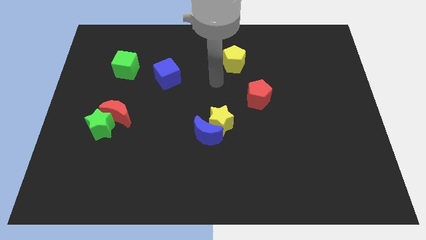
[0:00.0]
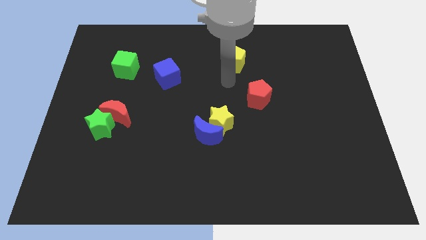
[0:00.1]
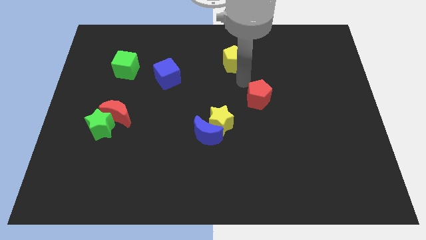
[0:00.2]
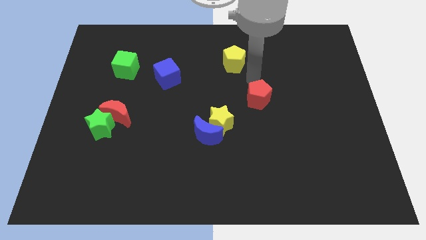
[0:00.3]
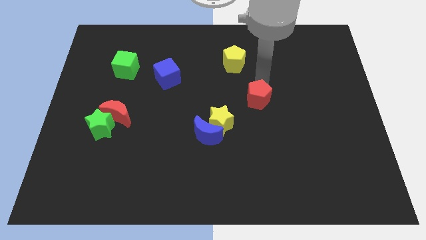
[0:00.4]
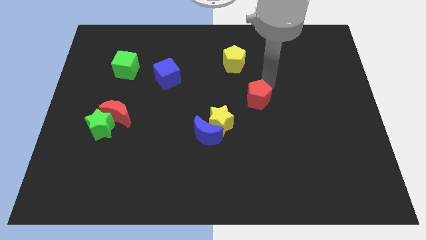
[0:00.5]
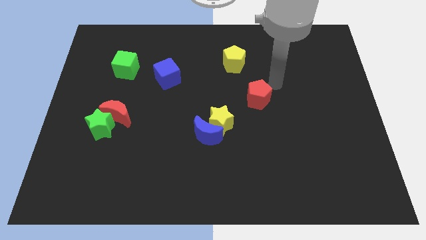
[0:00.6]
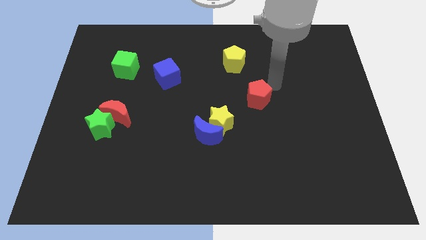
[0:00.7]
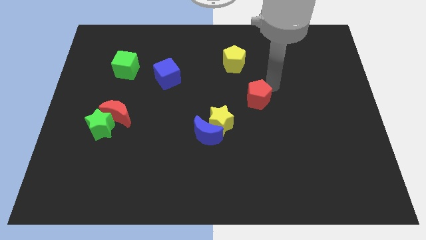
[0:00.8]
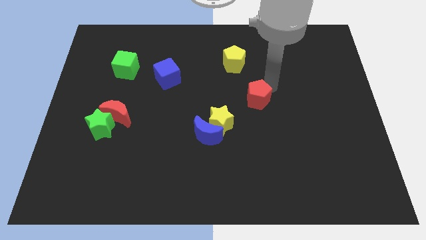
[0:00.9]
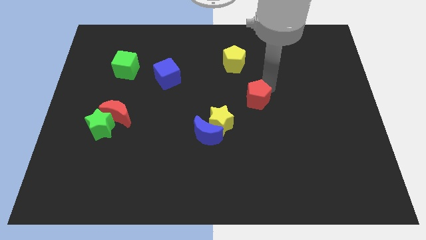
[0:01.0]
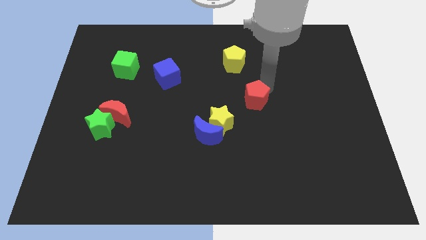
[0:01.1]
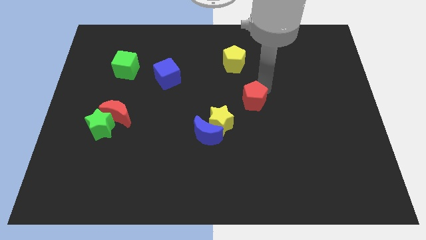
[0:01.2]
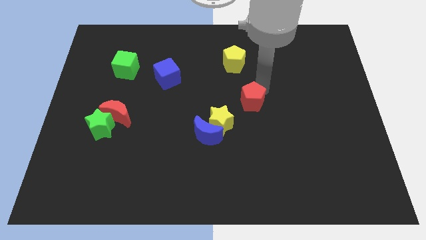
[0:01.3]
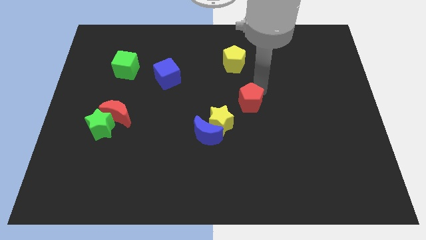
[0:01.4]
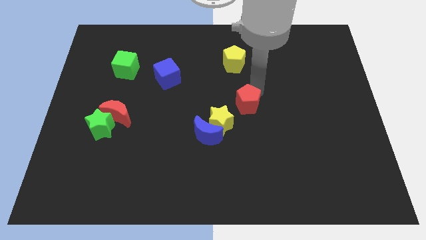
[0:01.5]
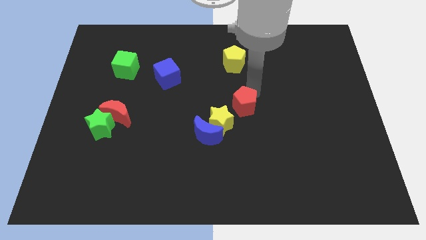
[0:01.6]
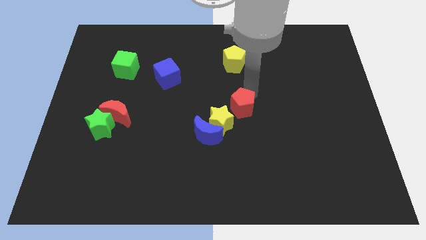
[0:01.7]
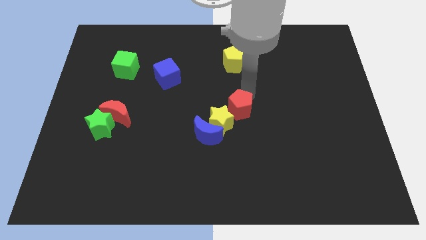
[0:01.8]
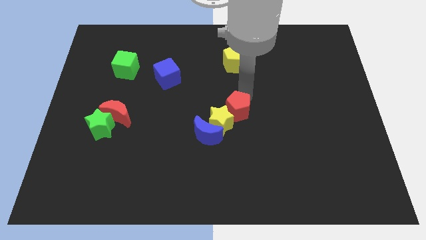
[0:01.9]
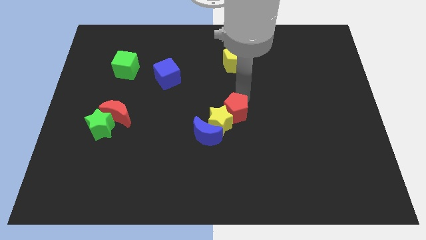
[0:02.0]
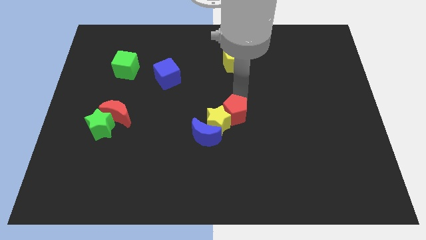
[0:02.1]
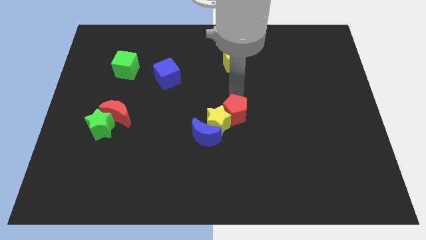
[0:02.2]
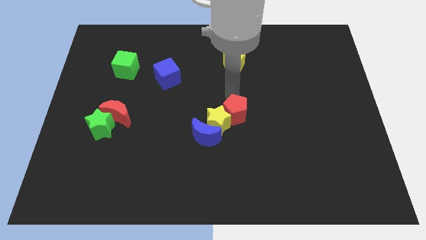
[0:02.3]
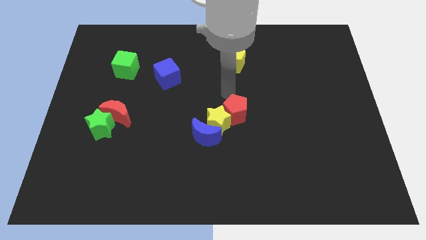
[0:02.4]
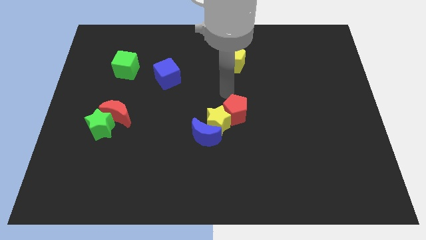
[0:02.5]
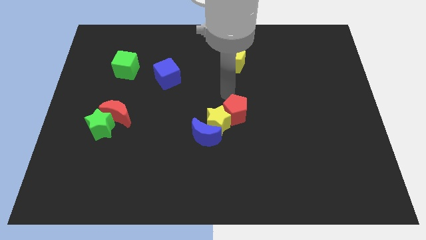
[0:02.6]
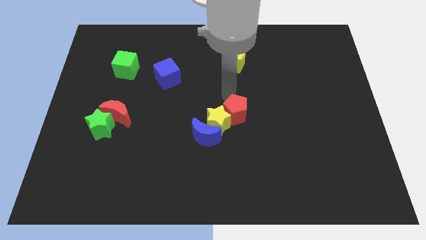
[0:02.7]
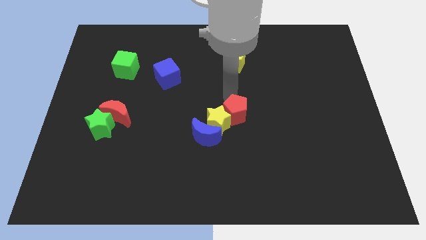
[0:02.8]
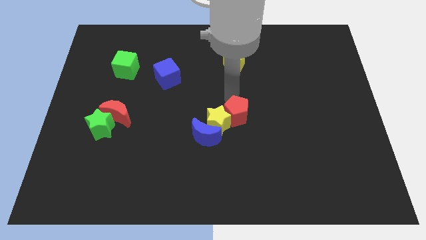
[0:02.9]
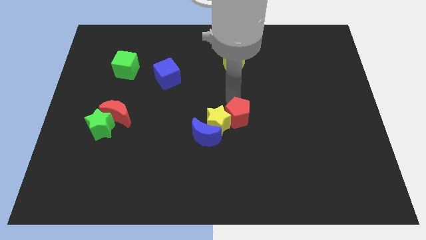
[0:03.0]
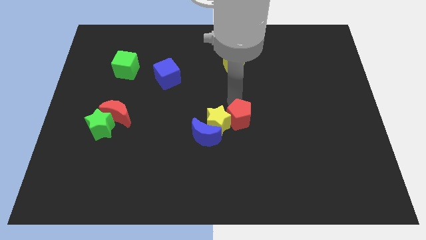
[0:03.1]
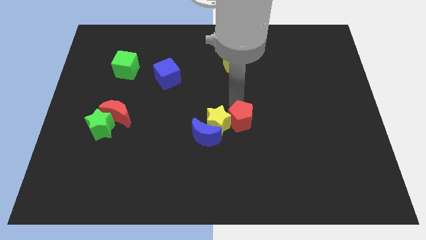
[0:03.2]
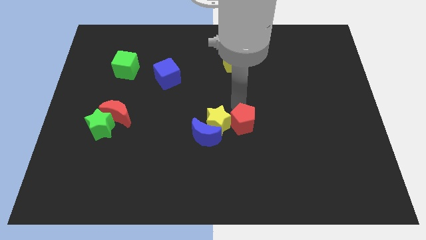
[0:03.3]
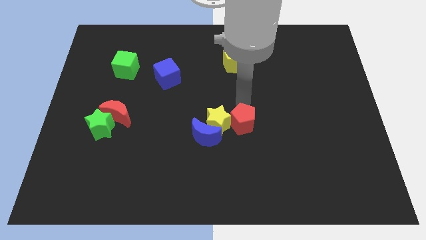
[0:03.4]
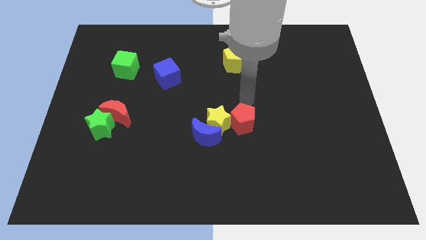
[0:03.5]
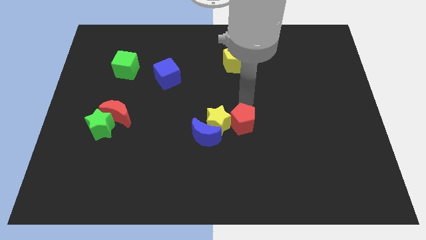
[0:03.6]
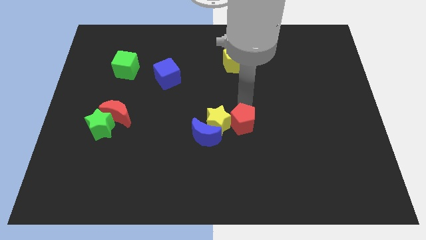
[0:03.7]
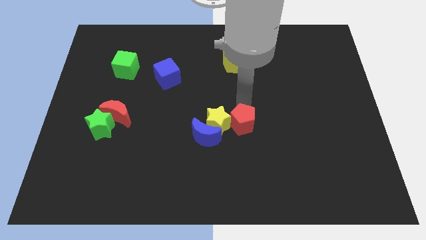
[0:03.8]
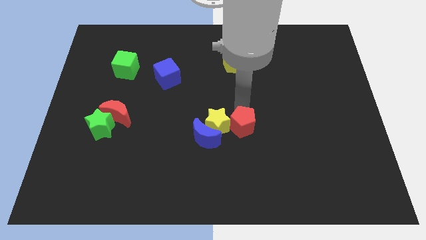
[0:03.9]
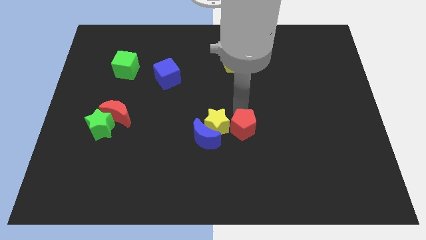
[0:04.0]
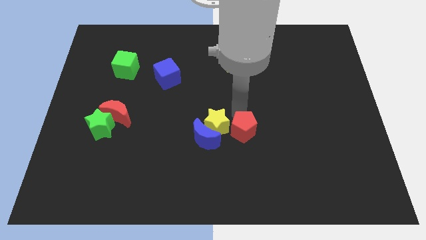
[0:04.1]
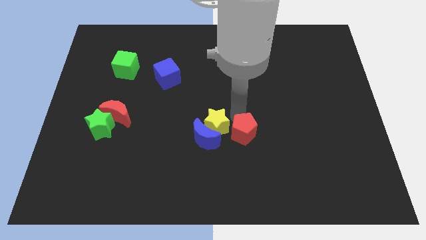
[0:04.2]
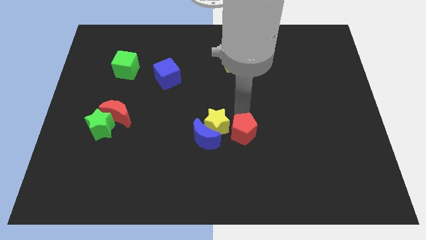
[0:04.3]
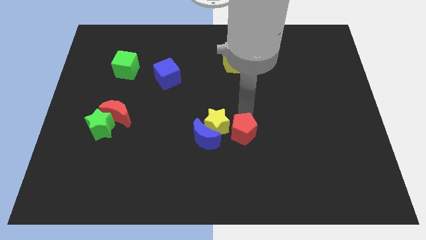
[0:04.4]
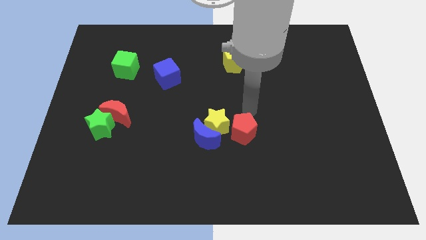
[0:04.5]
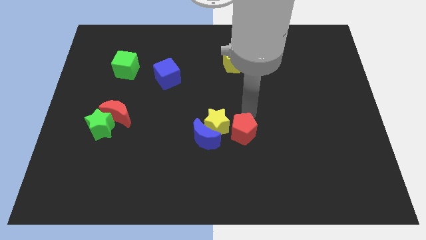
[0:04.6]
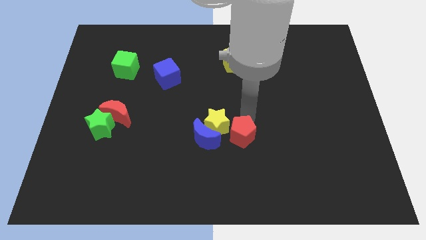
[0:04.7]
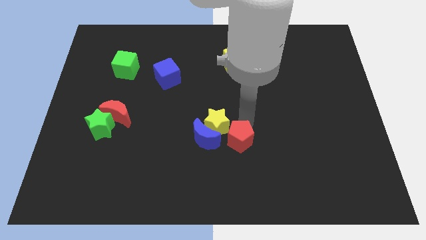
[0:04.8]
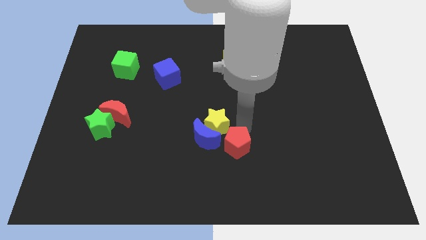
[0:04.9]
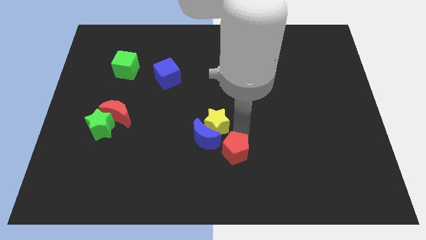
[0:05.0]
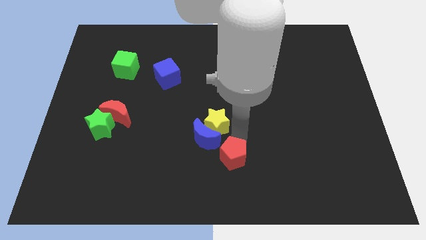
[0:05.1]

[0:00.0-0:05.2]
put the red pentagon to the bottom side

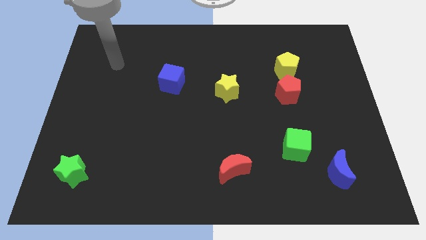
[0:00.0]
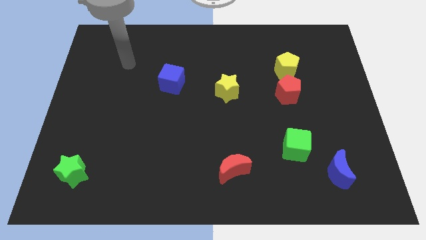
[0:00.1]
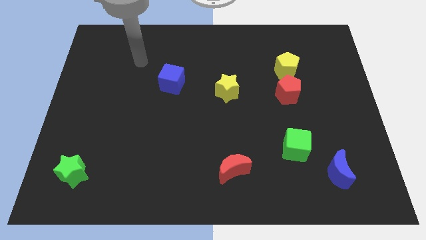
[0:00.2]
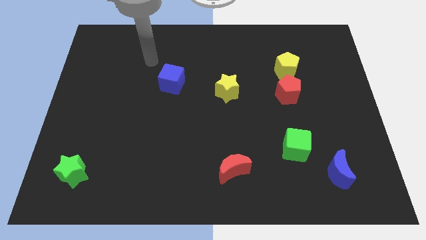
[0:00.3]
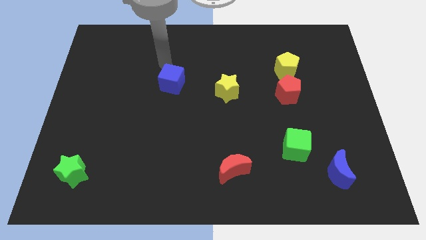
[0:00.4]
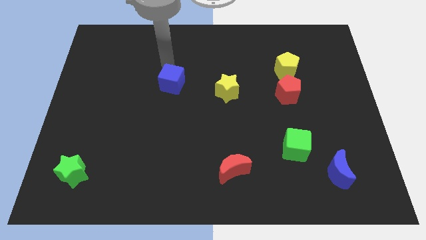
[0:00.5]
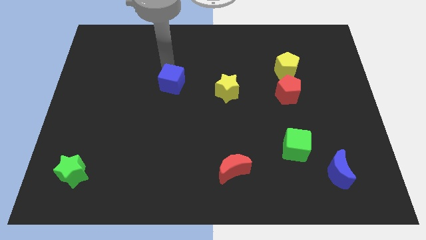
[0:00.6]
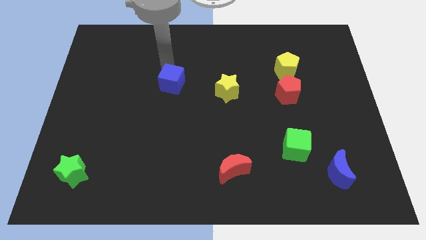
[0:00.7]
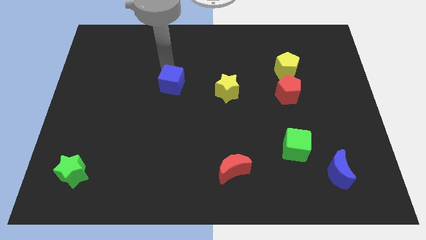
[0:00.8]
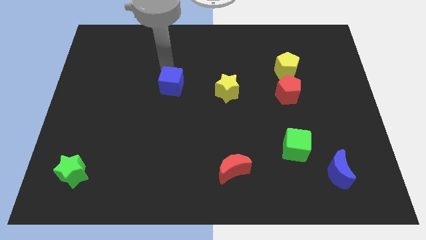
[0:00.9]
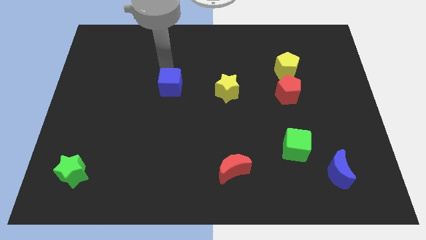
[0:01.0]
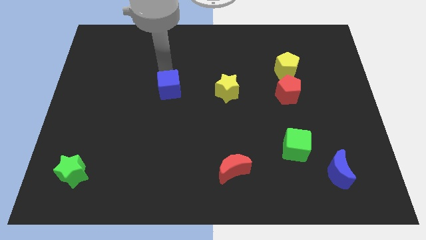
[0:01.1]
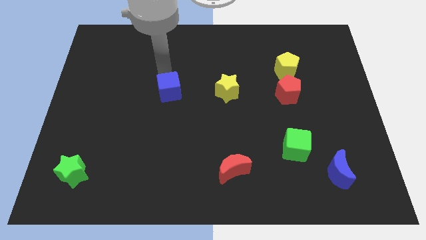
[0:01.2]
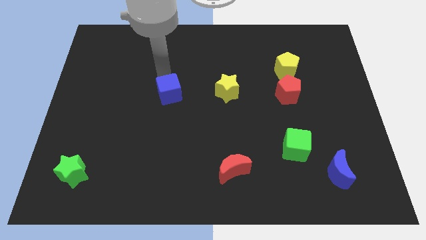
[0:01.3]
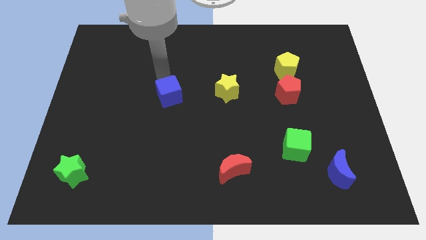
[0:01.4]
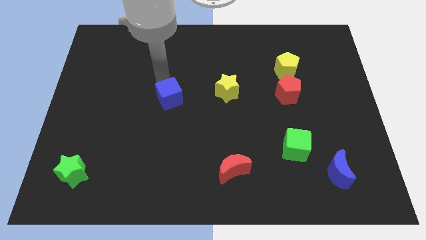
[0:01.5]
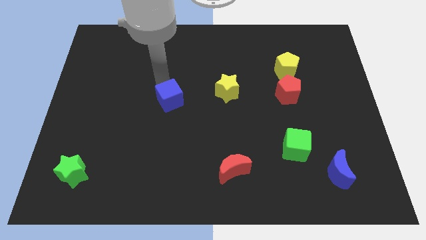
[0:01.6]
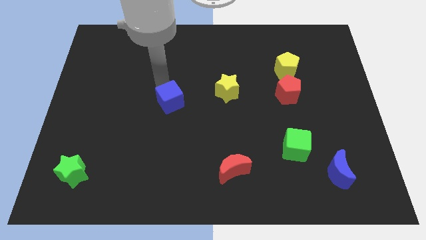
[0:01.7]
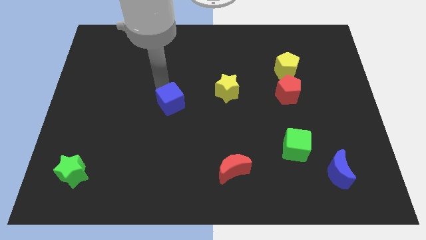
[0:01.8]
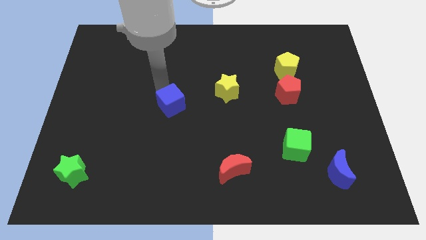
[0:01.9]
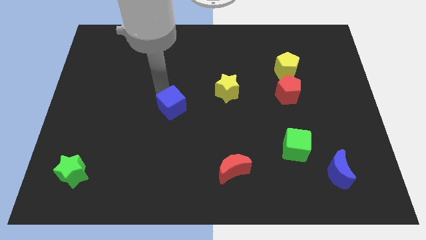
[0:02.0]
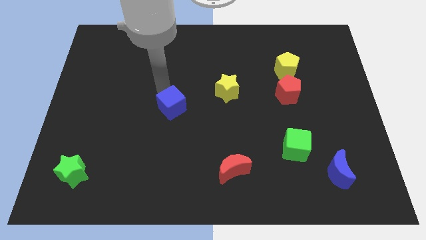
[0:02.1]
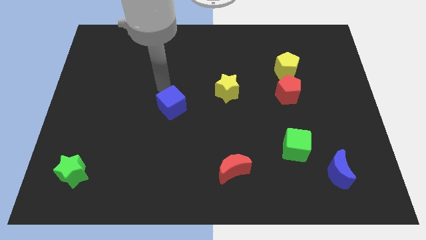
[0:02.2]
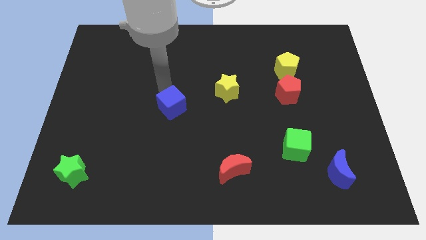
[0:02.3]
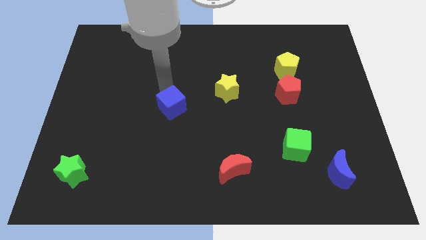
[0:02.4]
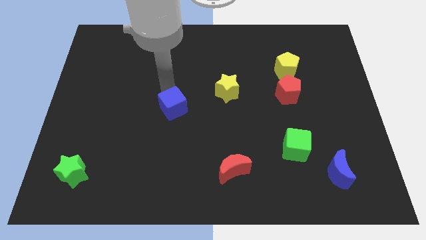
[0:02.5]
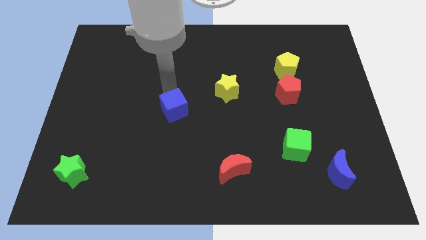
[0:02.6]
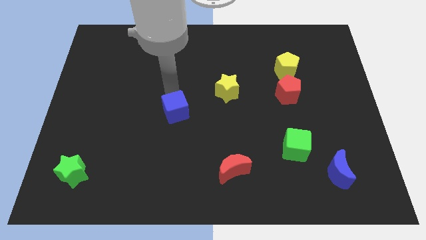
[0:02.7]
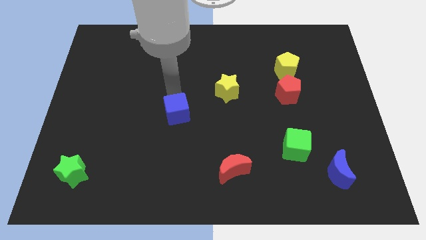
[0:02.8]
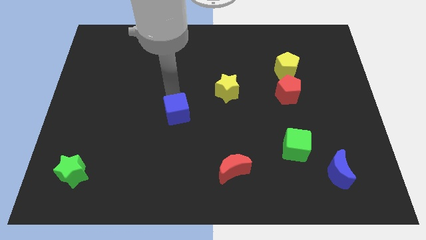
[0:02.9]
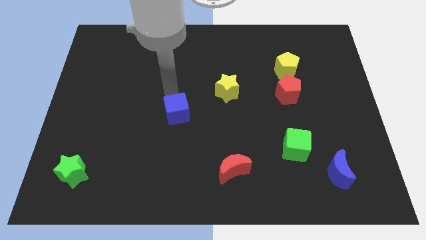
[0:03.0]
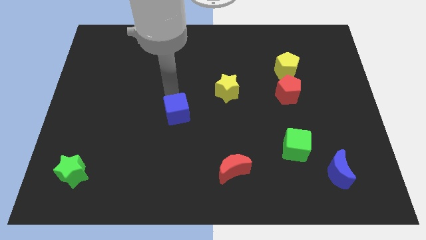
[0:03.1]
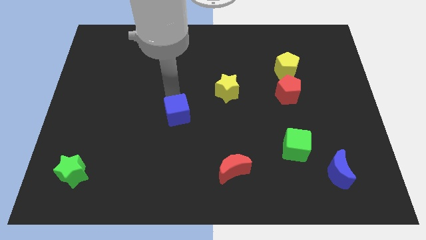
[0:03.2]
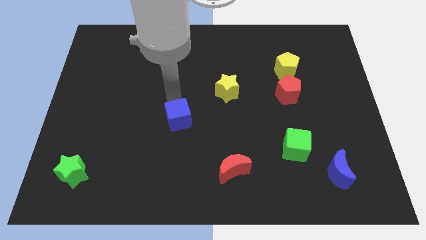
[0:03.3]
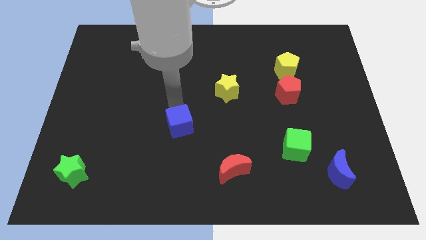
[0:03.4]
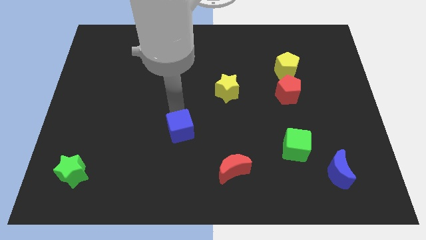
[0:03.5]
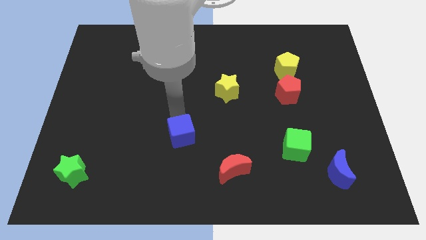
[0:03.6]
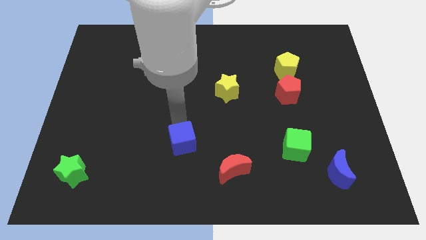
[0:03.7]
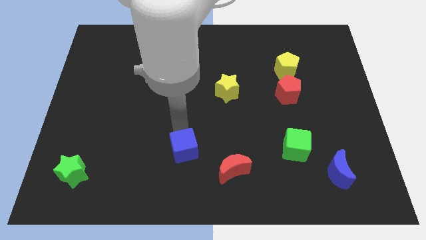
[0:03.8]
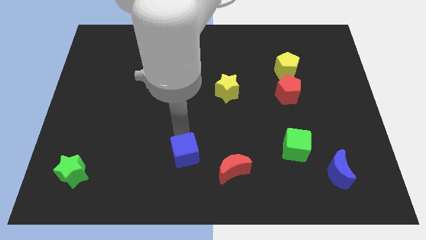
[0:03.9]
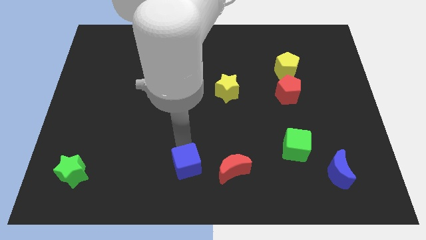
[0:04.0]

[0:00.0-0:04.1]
move the blue cube to the bottom
